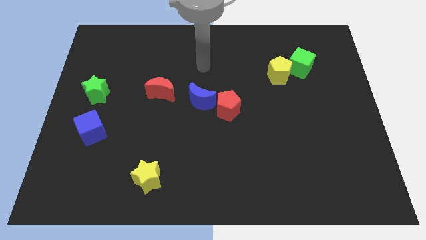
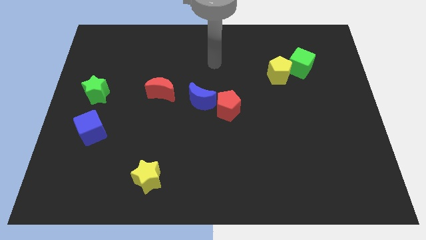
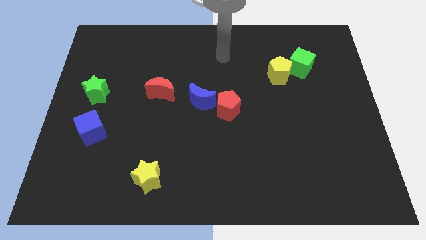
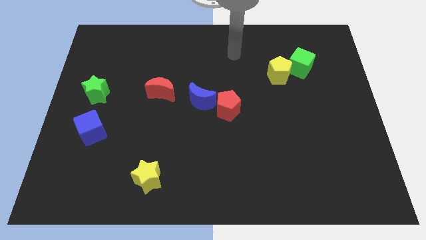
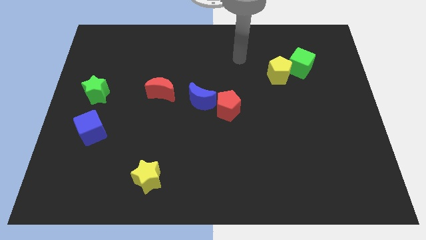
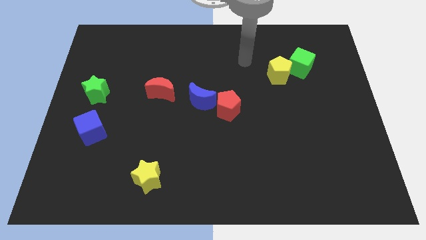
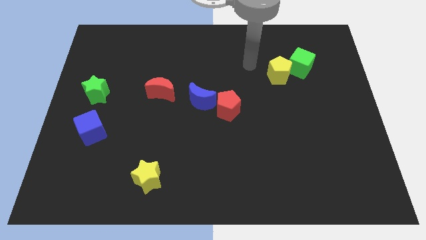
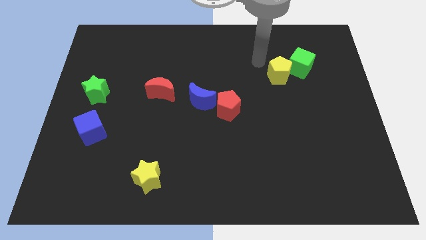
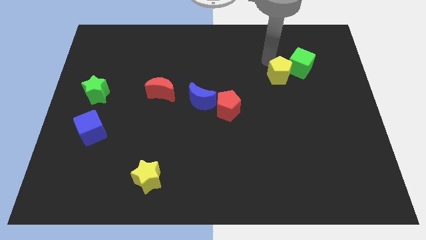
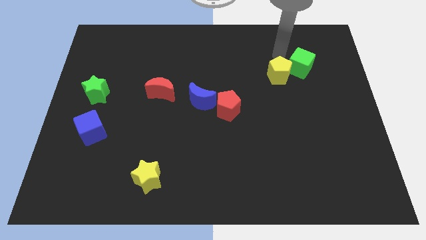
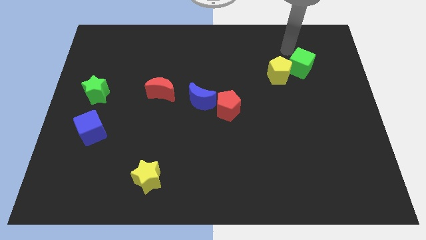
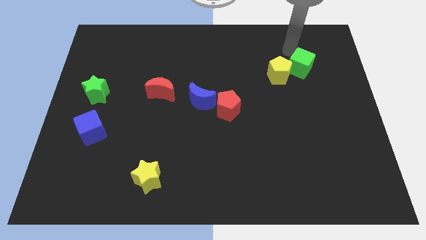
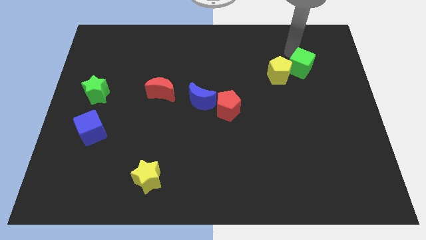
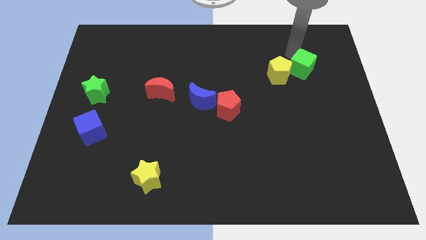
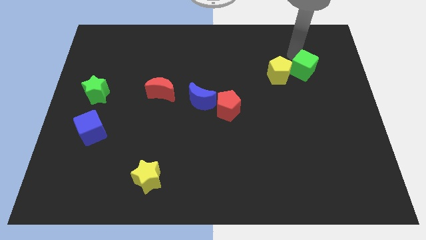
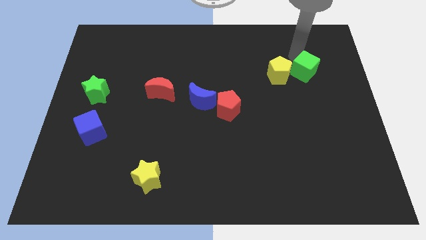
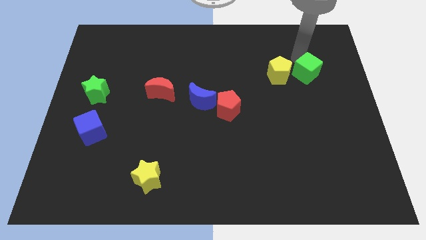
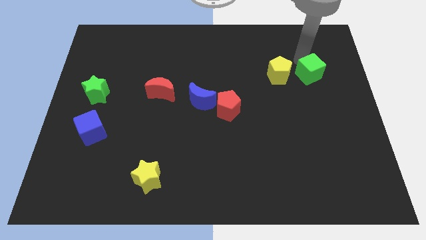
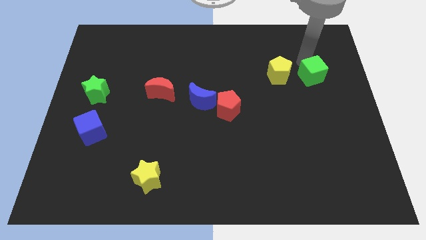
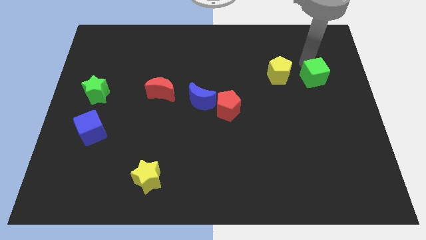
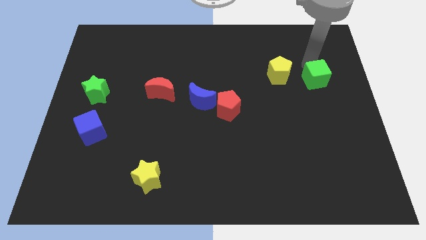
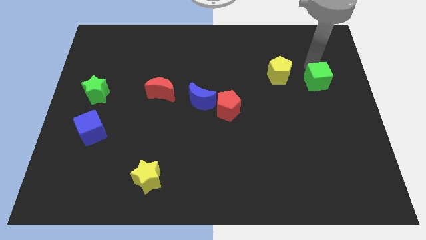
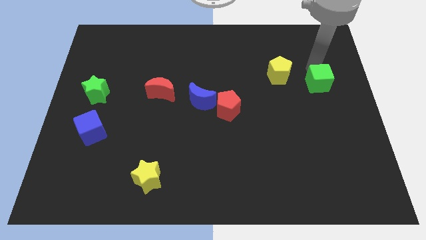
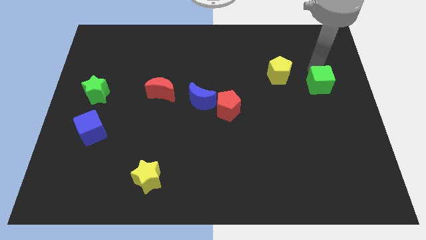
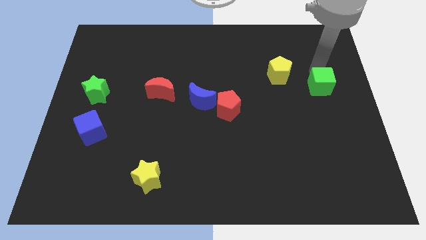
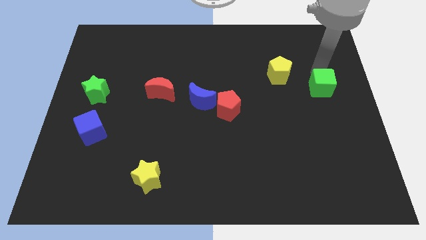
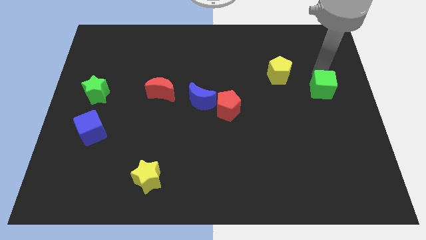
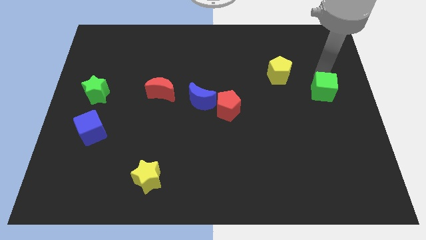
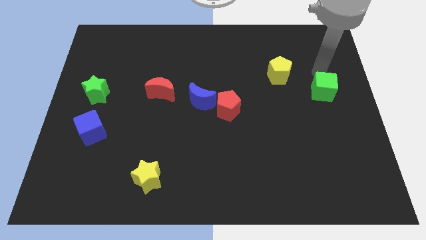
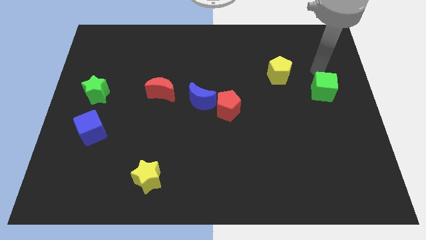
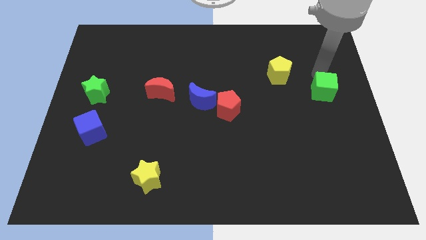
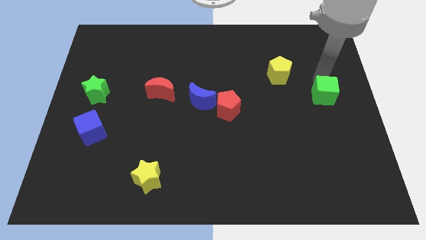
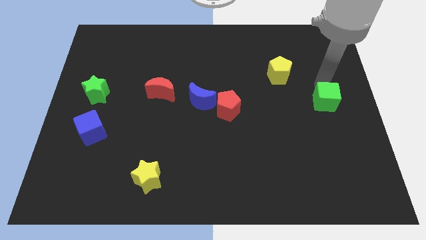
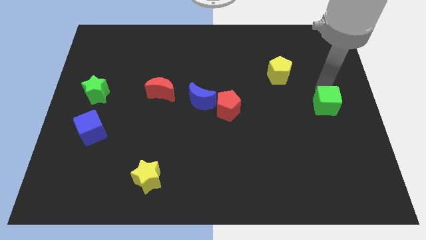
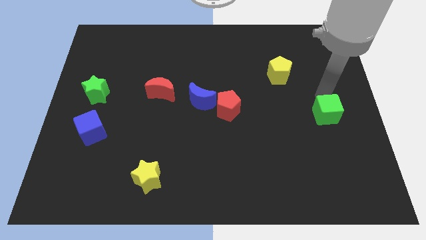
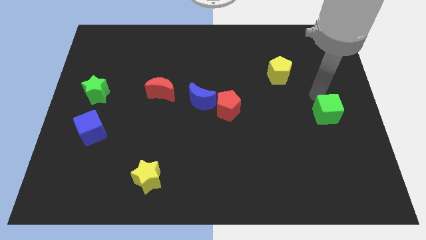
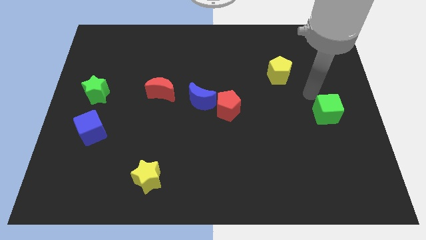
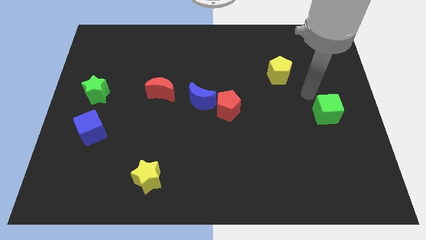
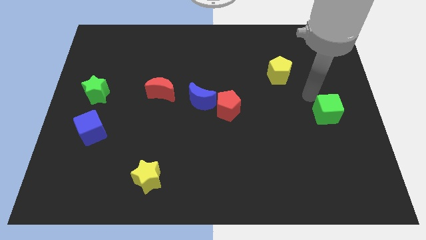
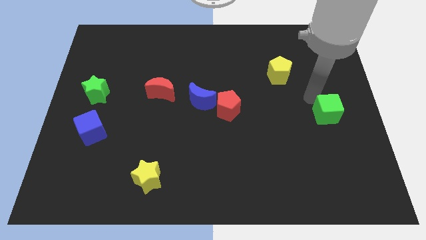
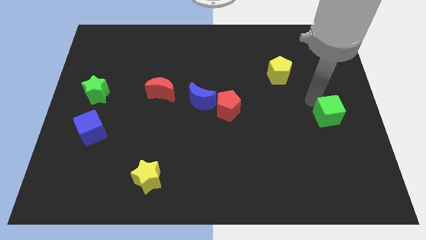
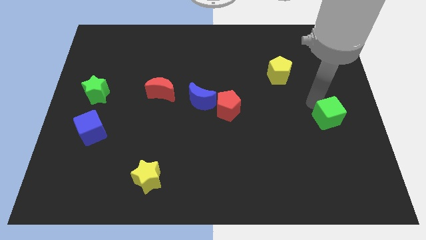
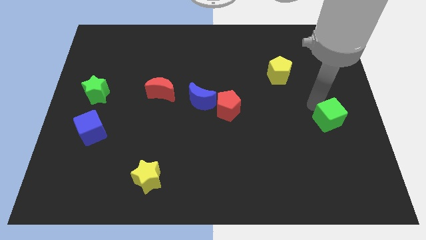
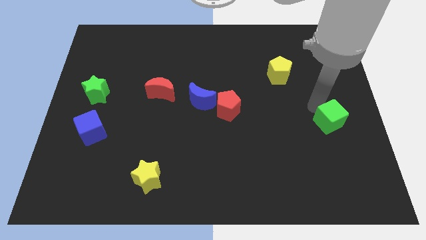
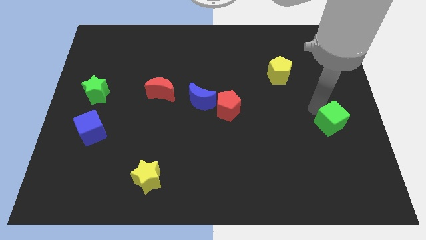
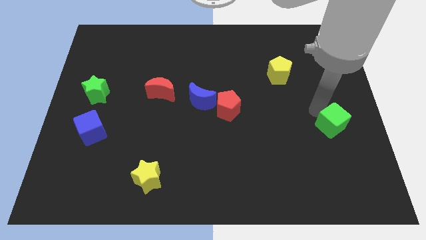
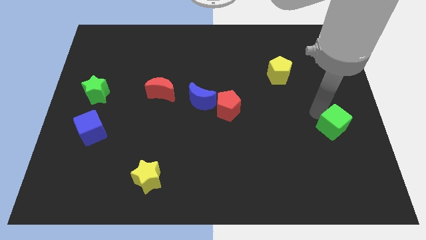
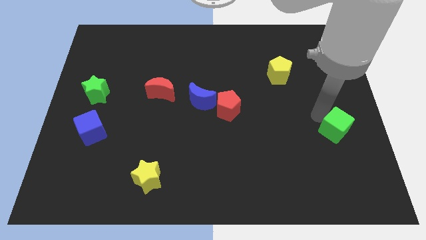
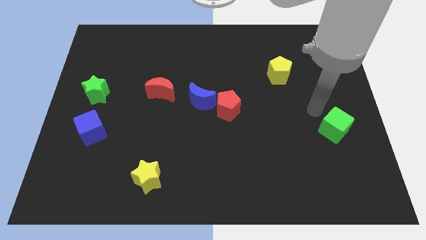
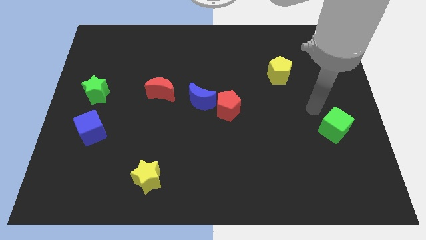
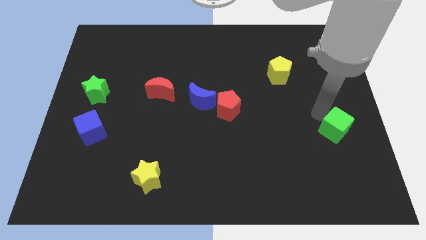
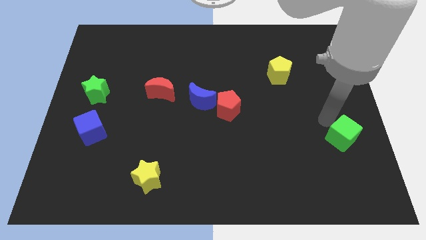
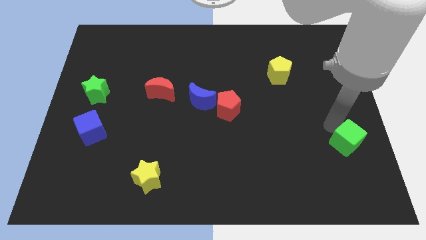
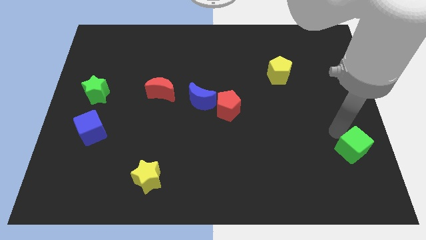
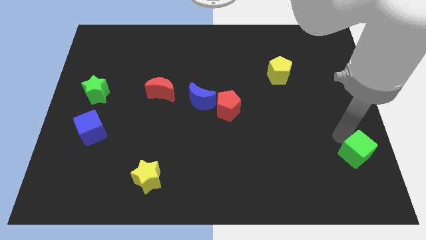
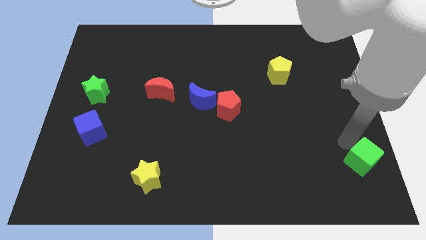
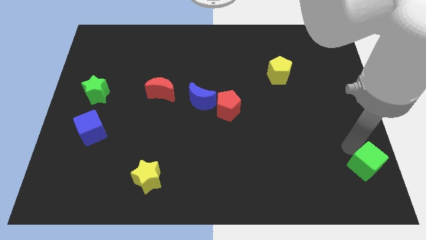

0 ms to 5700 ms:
put the green cube to the bottom right of the board
